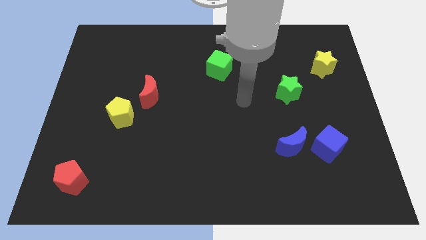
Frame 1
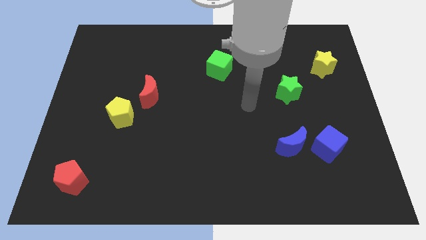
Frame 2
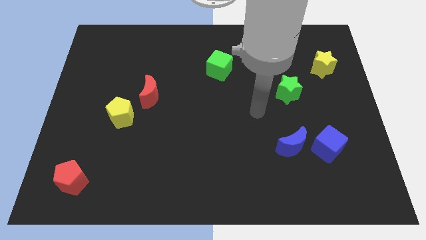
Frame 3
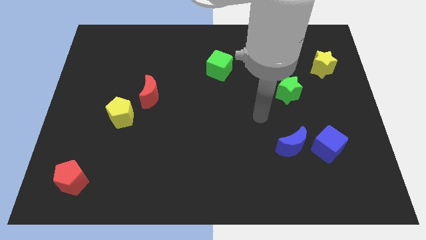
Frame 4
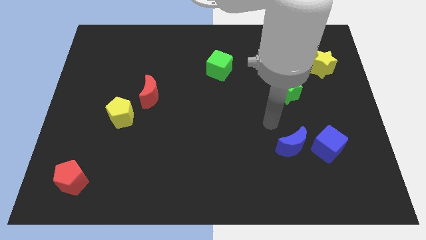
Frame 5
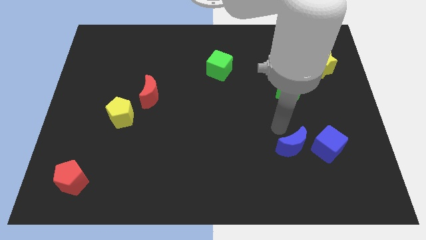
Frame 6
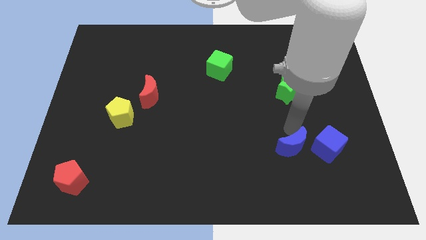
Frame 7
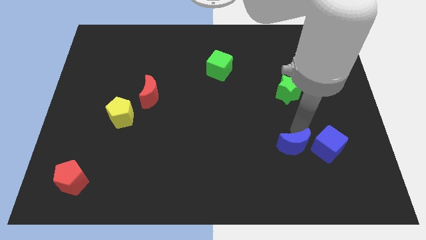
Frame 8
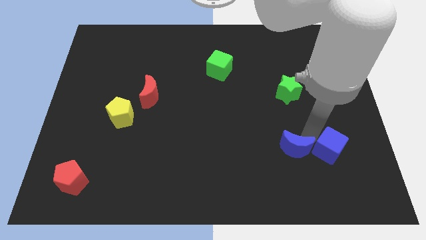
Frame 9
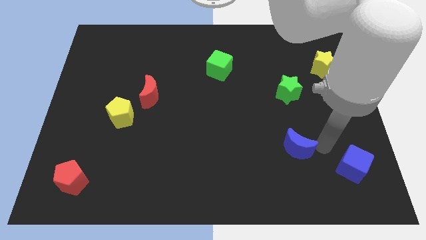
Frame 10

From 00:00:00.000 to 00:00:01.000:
separate the blue moon from the blue cube

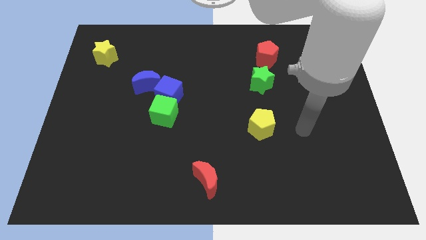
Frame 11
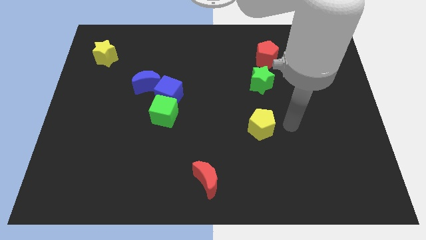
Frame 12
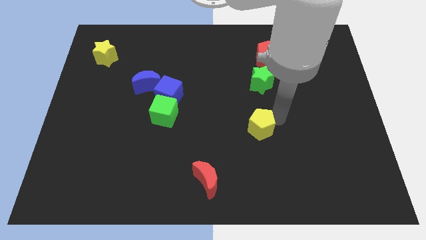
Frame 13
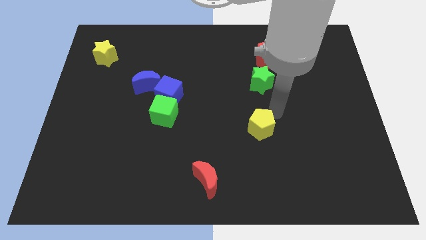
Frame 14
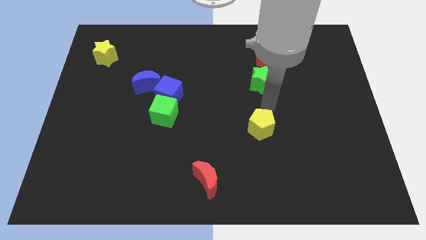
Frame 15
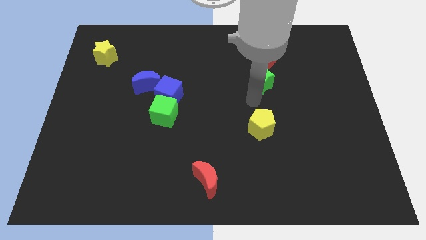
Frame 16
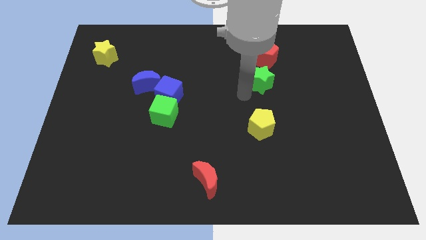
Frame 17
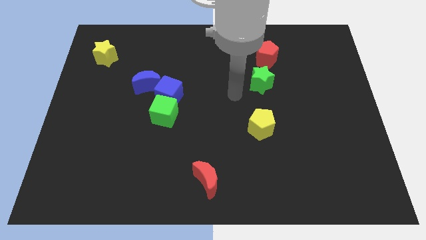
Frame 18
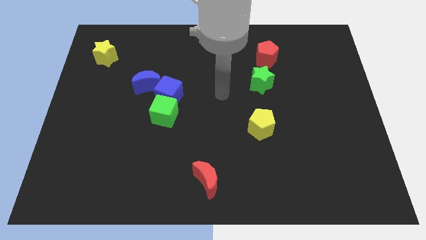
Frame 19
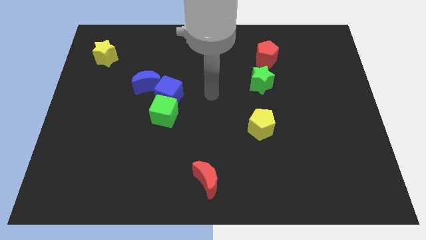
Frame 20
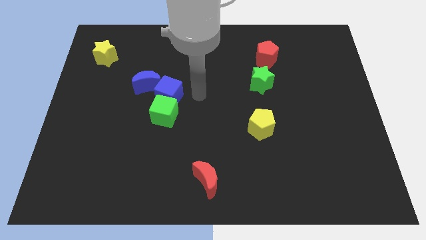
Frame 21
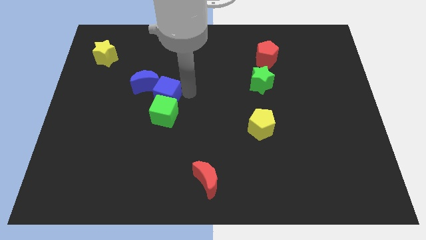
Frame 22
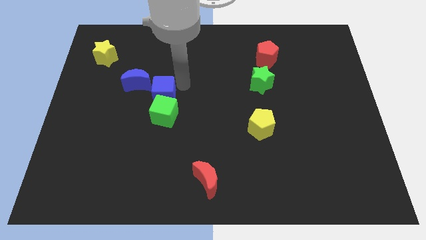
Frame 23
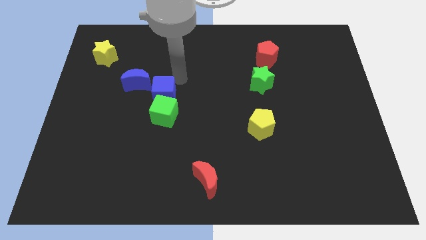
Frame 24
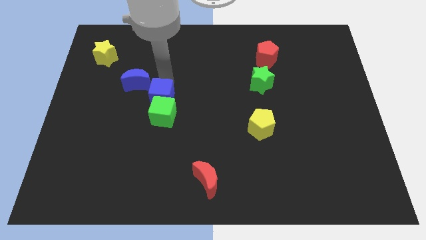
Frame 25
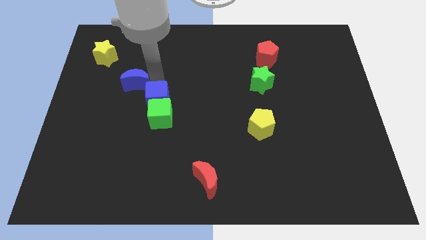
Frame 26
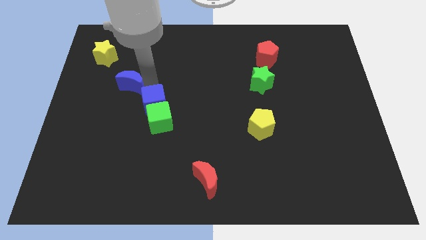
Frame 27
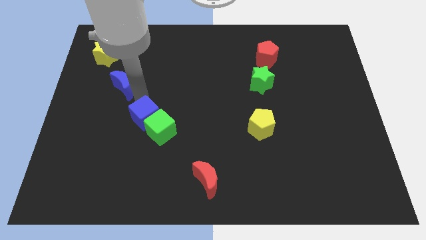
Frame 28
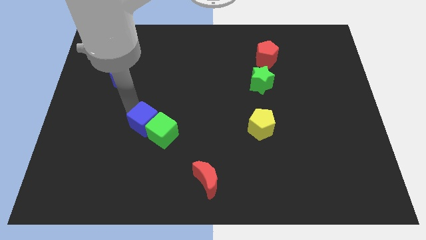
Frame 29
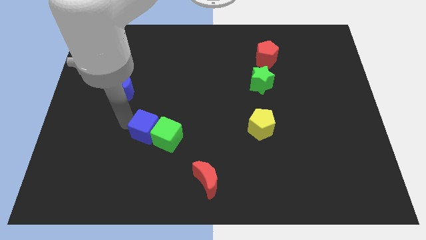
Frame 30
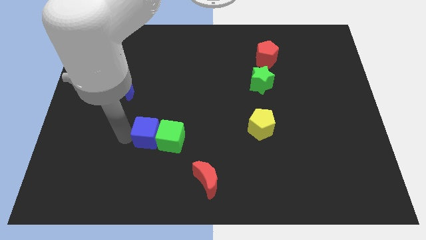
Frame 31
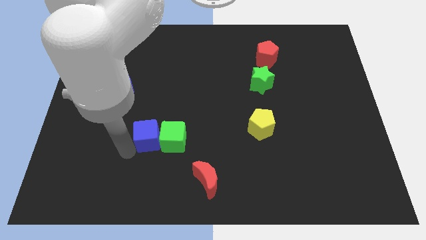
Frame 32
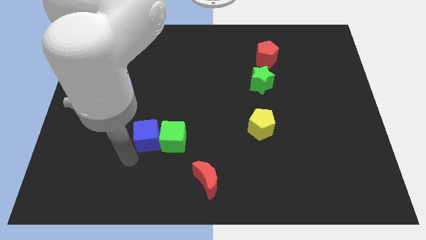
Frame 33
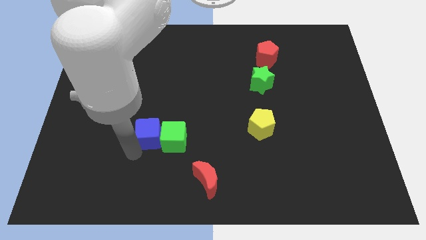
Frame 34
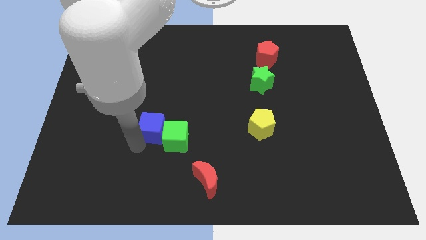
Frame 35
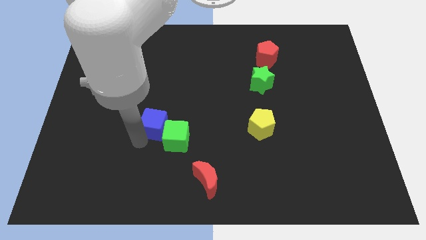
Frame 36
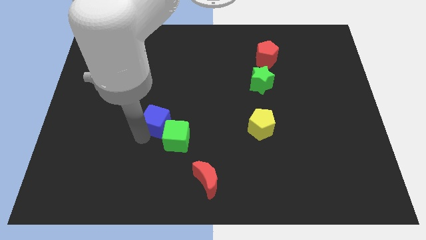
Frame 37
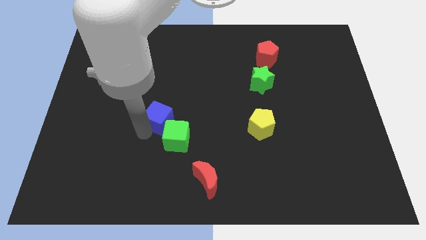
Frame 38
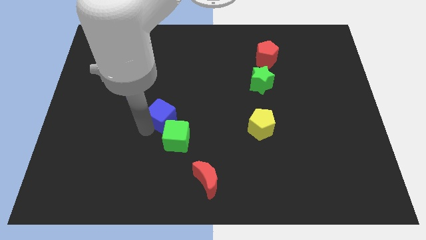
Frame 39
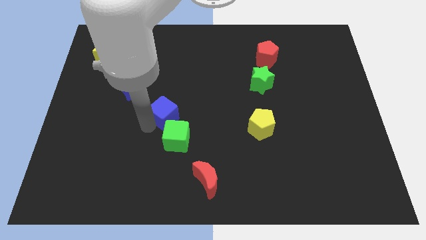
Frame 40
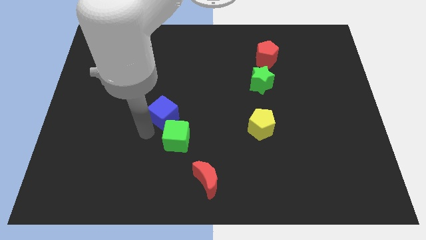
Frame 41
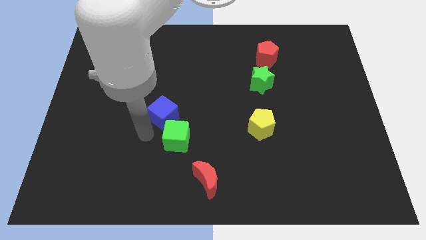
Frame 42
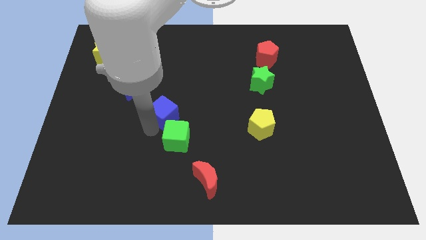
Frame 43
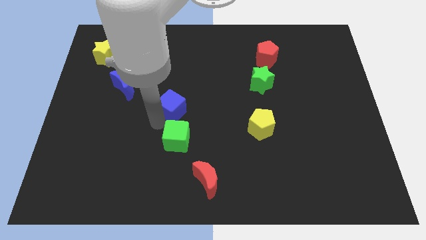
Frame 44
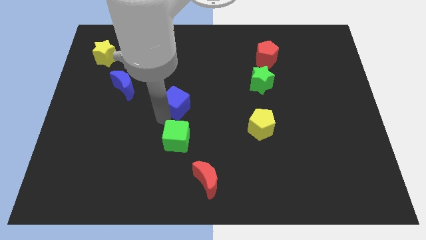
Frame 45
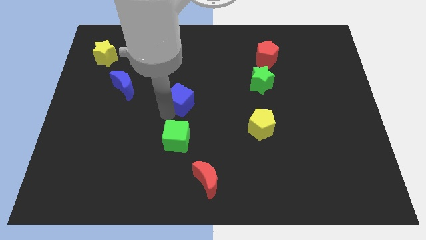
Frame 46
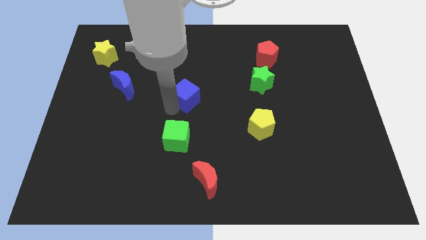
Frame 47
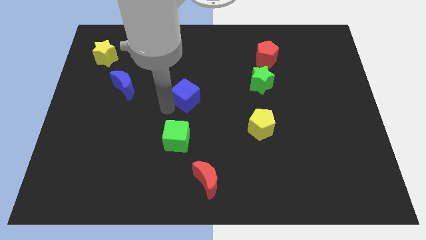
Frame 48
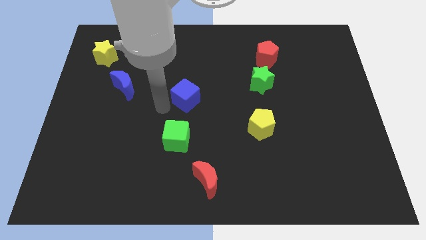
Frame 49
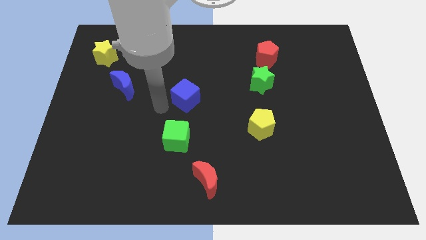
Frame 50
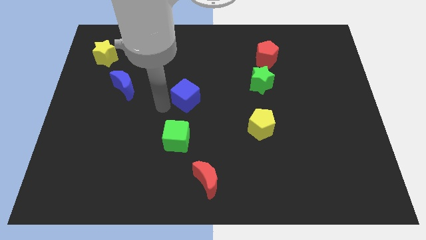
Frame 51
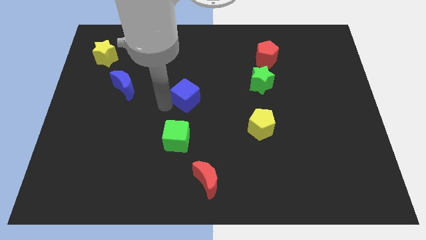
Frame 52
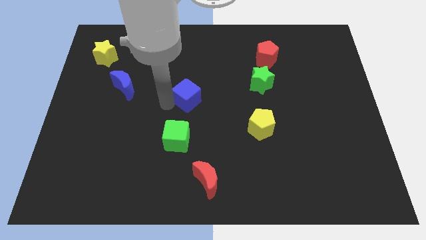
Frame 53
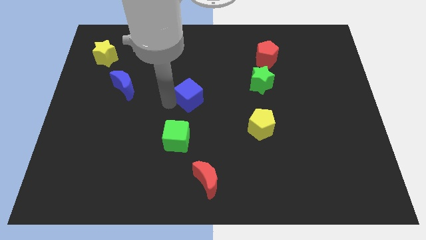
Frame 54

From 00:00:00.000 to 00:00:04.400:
separate the blue cube from the green cube and blue moon

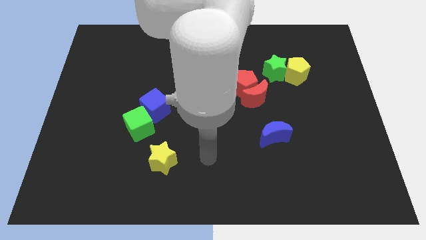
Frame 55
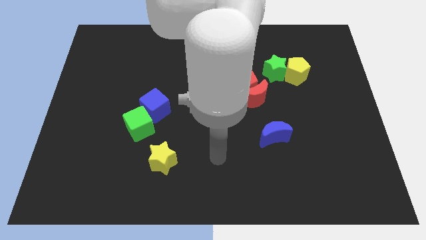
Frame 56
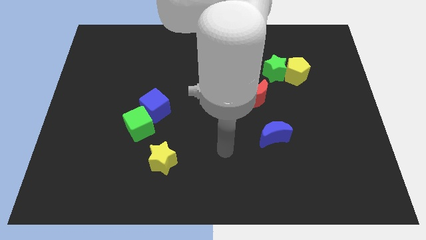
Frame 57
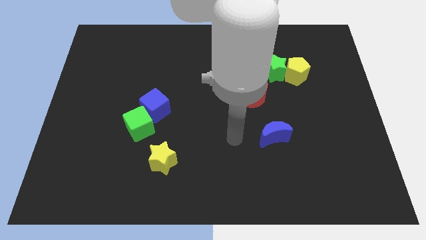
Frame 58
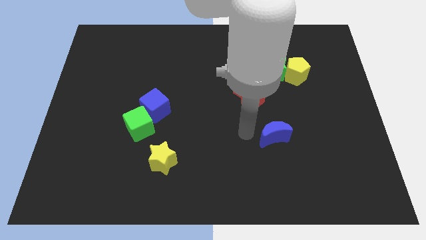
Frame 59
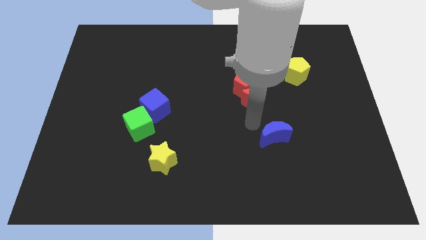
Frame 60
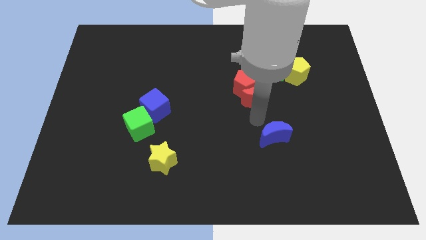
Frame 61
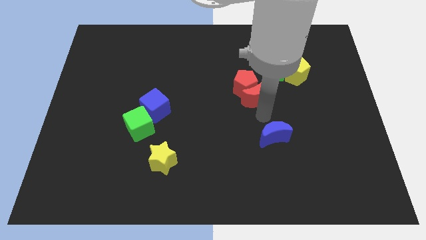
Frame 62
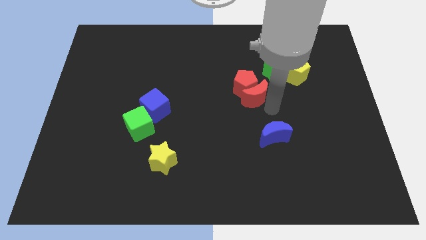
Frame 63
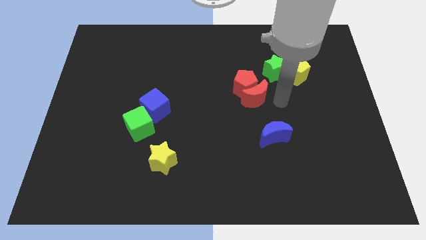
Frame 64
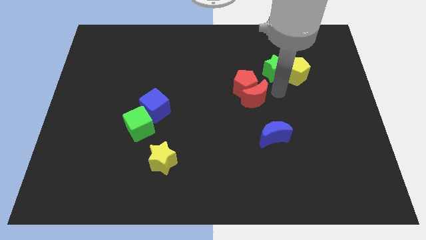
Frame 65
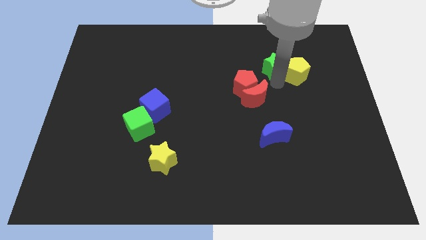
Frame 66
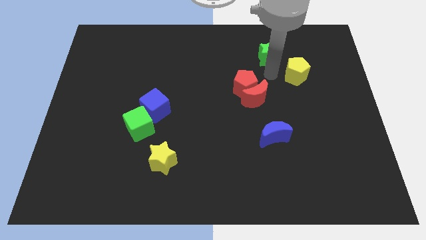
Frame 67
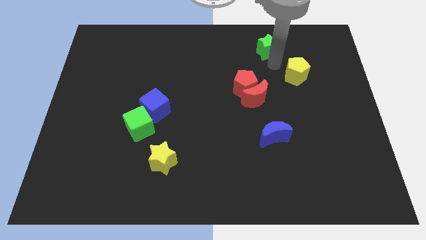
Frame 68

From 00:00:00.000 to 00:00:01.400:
pull the yellow pentagon apart from the green star

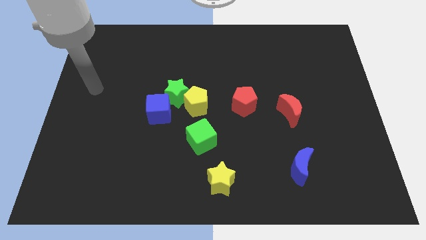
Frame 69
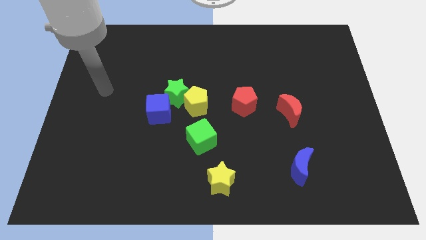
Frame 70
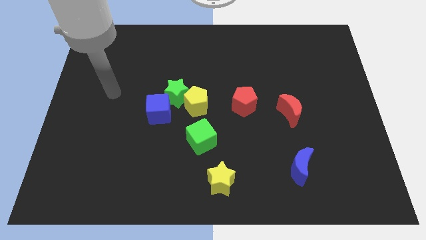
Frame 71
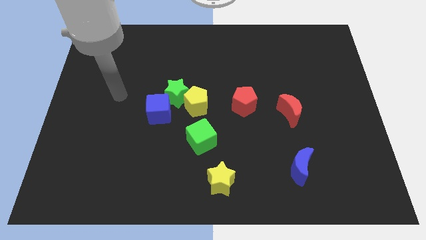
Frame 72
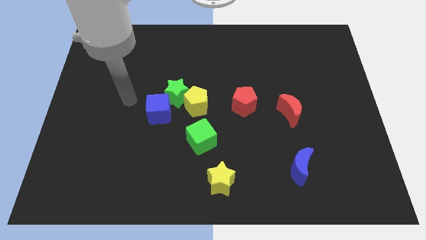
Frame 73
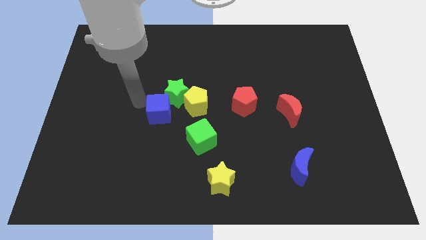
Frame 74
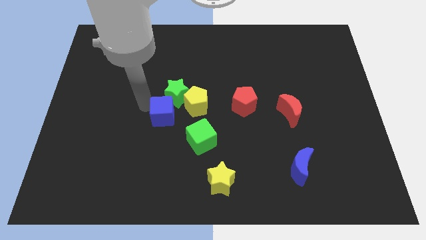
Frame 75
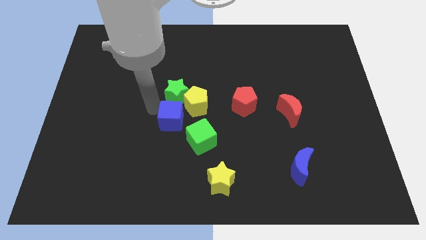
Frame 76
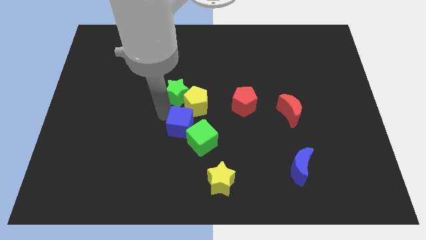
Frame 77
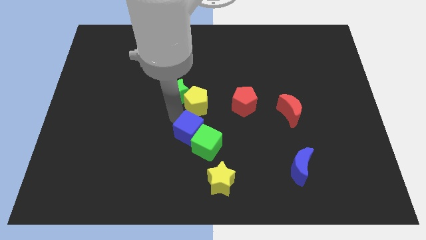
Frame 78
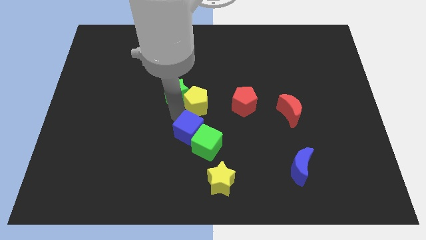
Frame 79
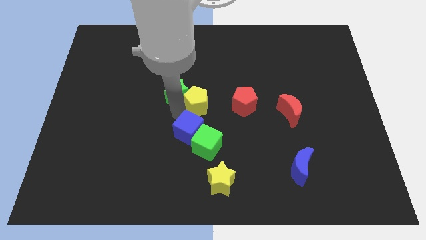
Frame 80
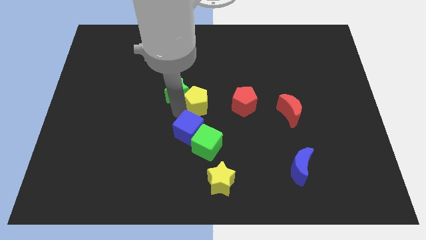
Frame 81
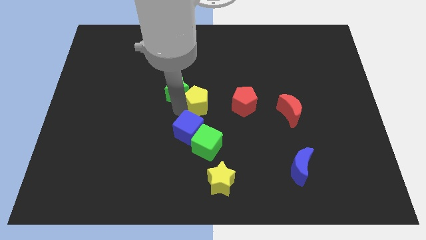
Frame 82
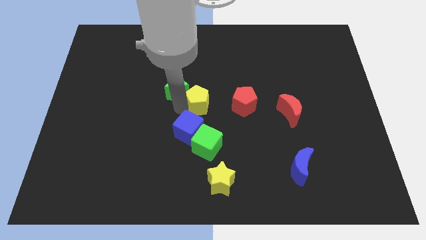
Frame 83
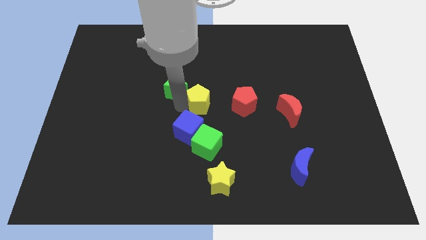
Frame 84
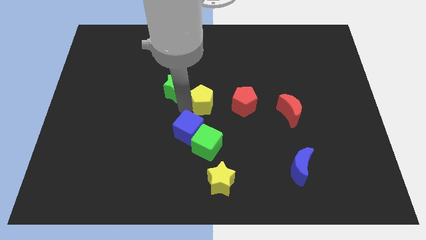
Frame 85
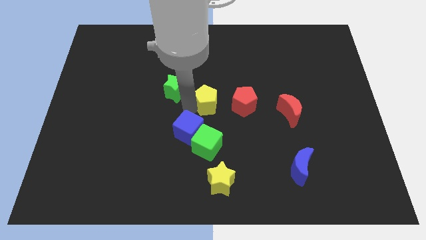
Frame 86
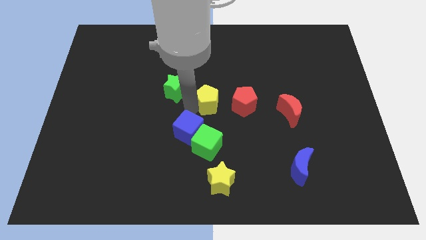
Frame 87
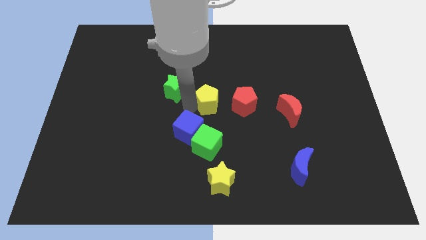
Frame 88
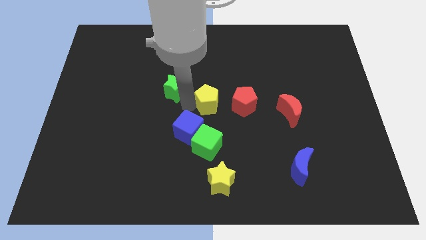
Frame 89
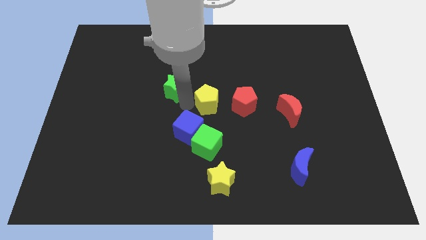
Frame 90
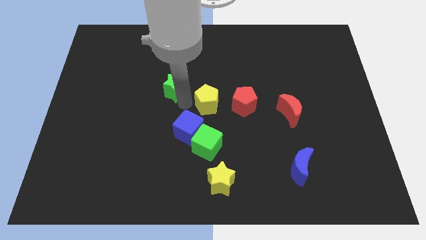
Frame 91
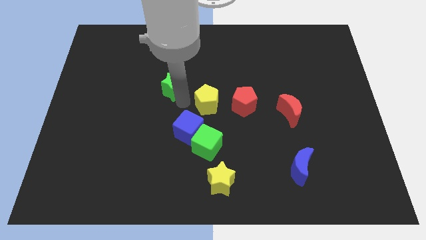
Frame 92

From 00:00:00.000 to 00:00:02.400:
pull the green star apart from the yellow pentagon and blue cube

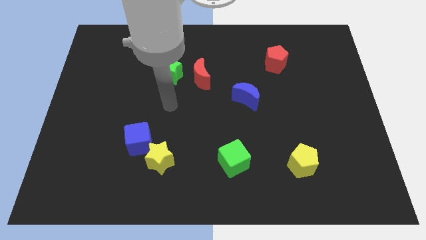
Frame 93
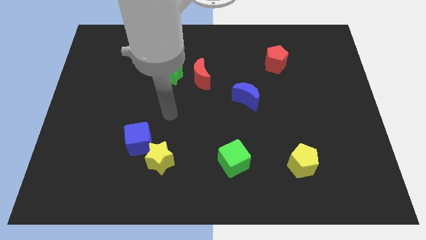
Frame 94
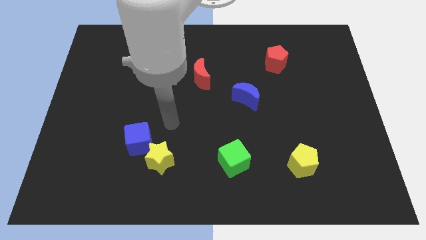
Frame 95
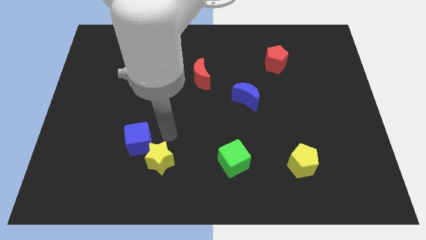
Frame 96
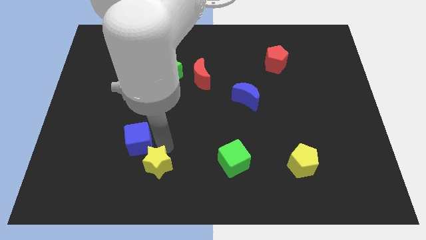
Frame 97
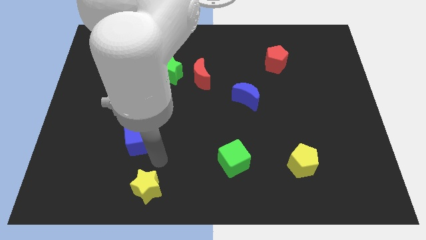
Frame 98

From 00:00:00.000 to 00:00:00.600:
separate the blue cube from the yellow star
